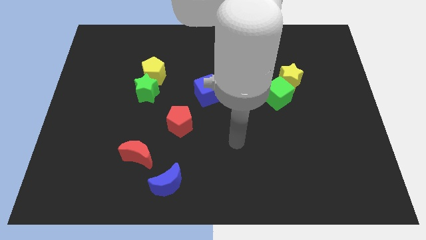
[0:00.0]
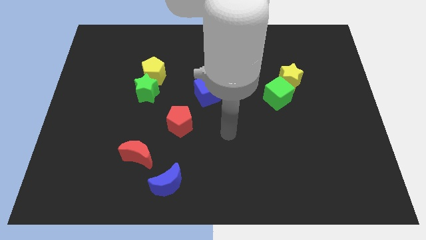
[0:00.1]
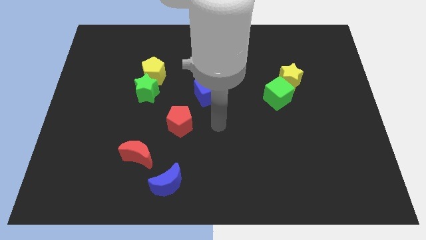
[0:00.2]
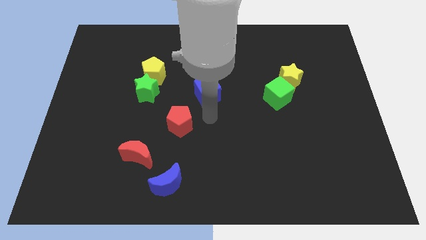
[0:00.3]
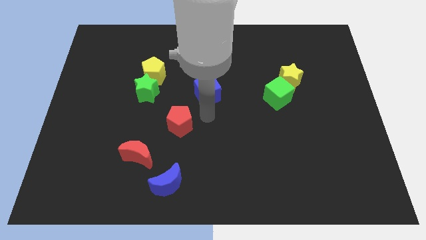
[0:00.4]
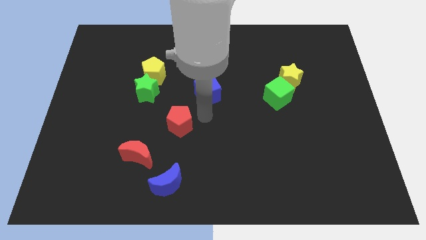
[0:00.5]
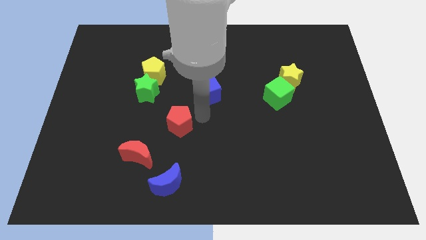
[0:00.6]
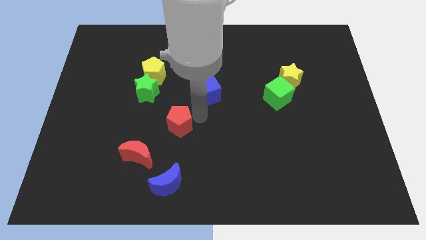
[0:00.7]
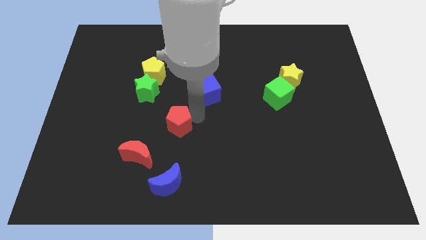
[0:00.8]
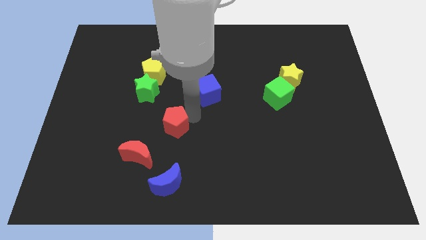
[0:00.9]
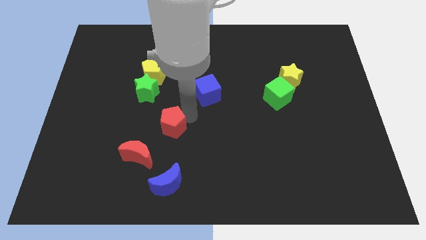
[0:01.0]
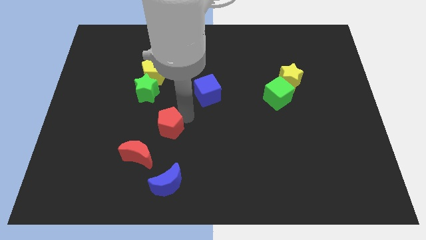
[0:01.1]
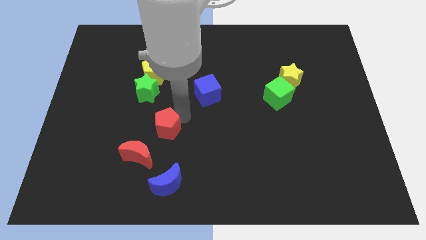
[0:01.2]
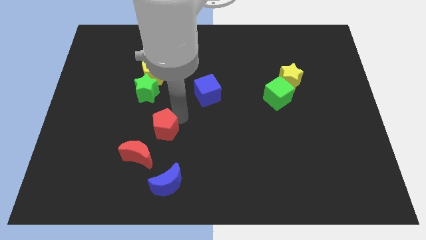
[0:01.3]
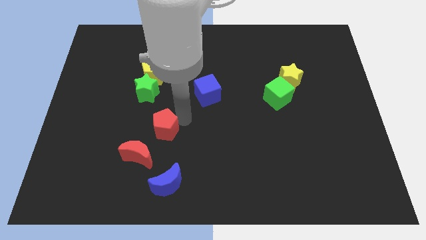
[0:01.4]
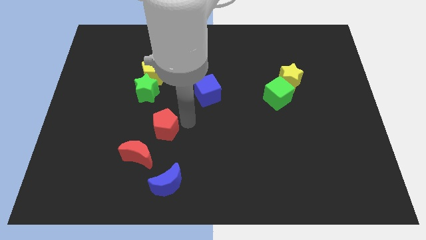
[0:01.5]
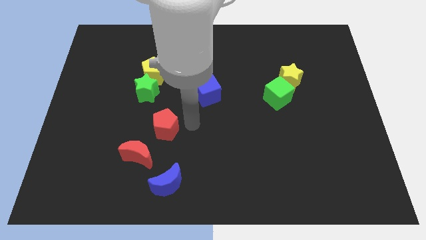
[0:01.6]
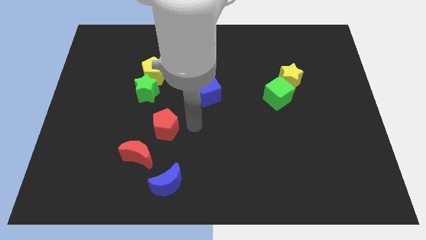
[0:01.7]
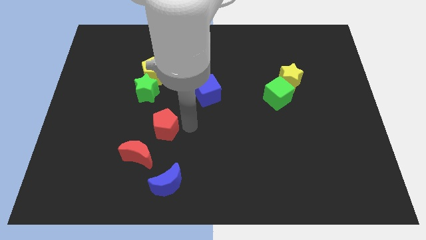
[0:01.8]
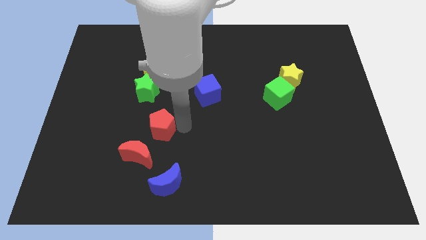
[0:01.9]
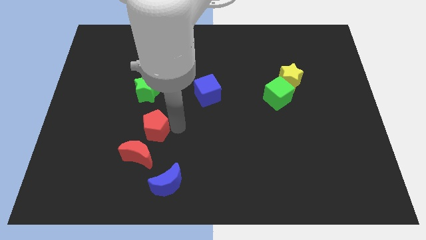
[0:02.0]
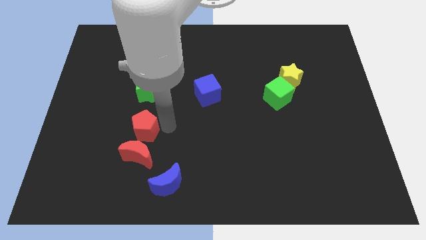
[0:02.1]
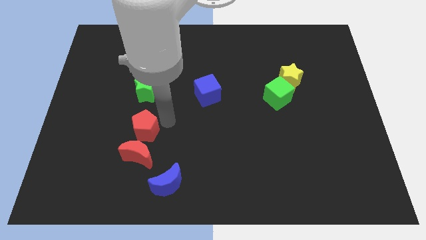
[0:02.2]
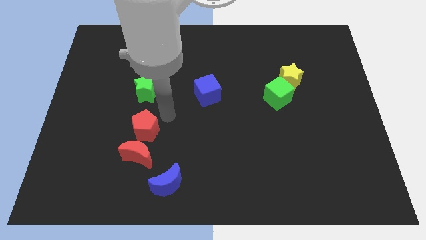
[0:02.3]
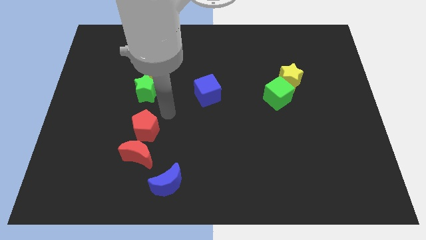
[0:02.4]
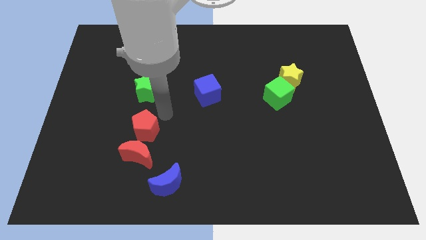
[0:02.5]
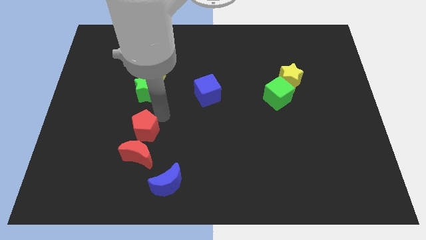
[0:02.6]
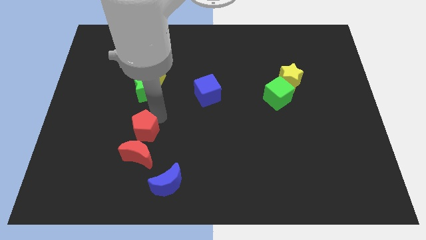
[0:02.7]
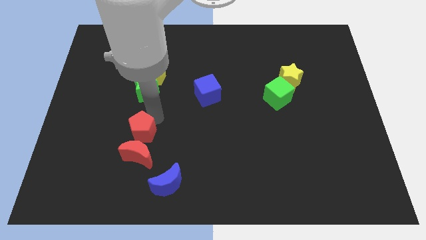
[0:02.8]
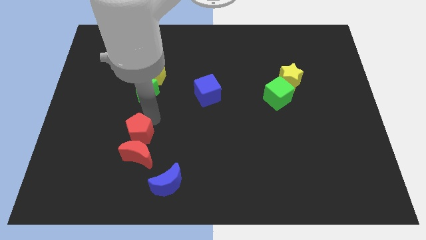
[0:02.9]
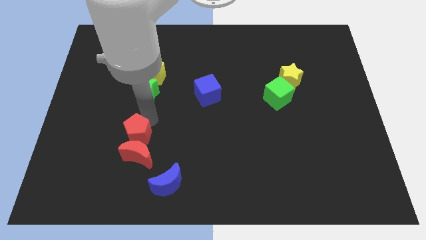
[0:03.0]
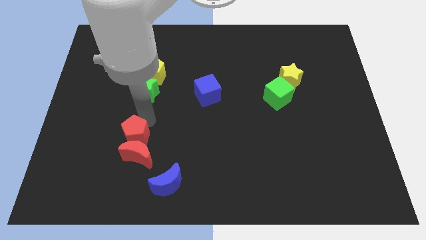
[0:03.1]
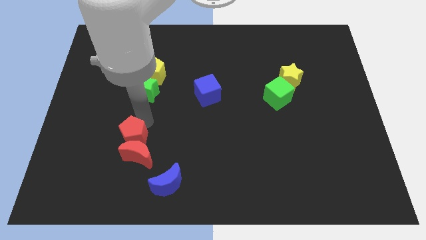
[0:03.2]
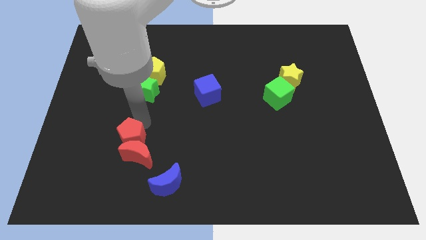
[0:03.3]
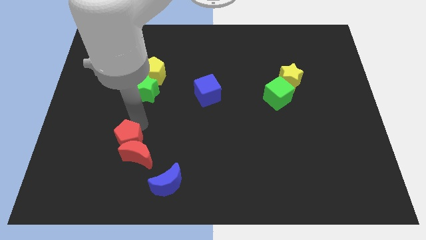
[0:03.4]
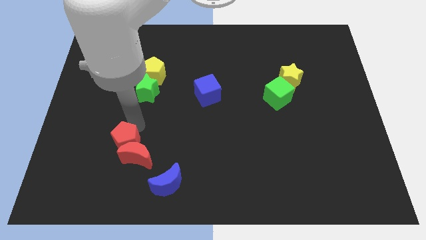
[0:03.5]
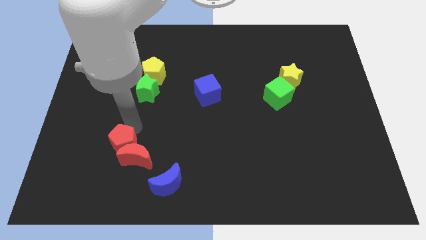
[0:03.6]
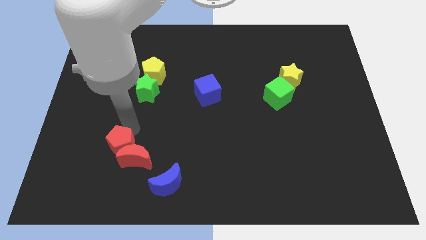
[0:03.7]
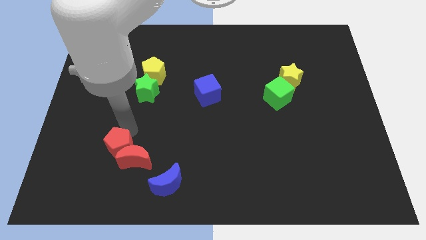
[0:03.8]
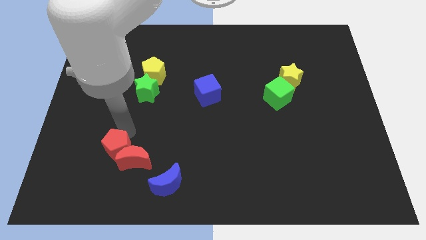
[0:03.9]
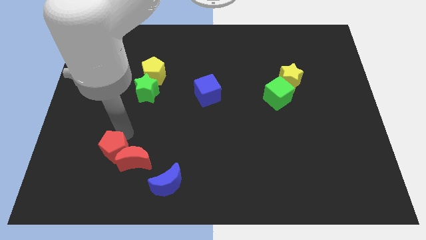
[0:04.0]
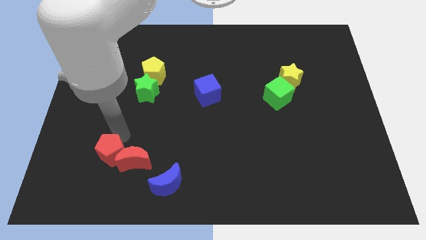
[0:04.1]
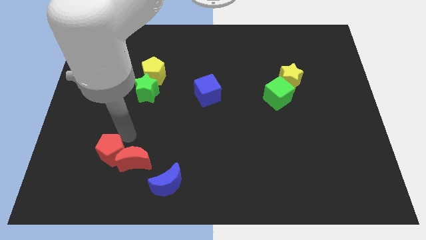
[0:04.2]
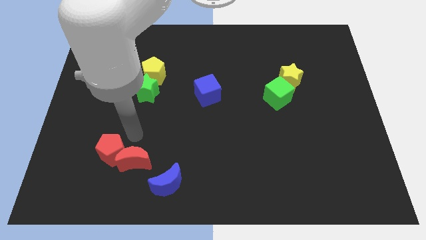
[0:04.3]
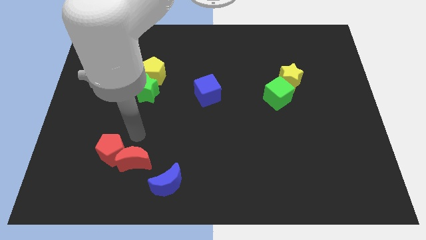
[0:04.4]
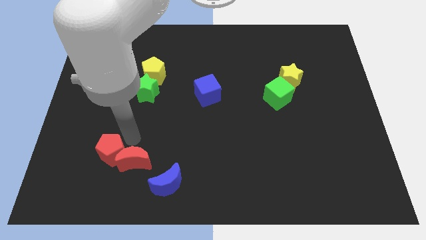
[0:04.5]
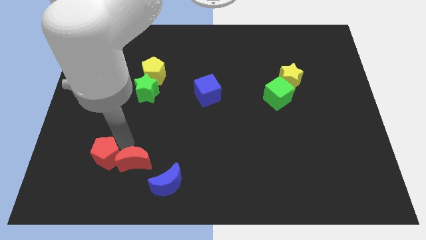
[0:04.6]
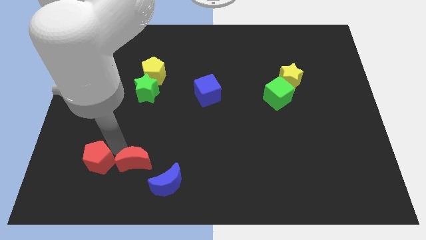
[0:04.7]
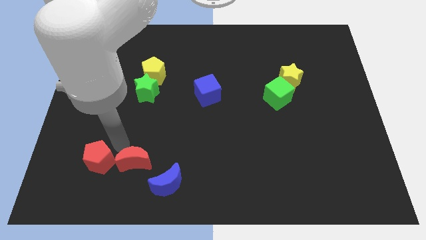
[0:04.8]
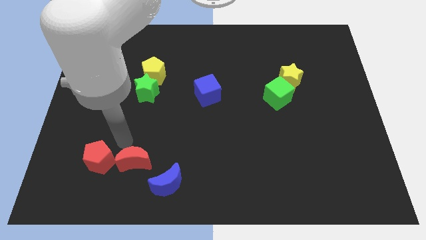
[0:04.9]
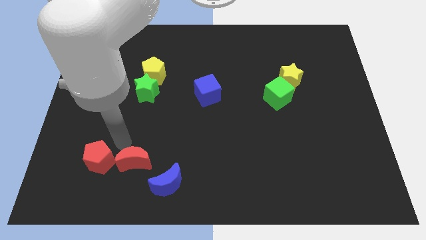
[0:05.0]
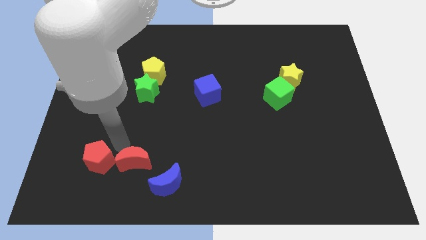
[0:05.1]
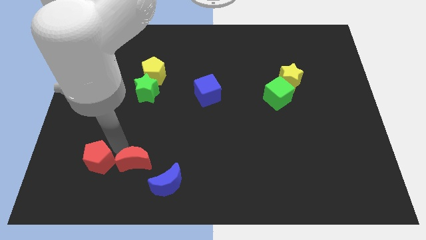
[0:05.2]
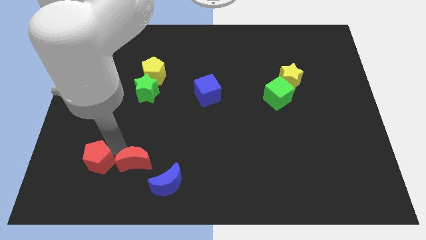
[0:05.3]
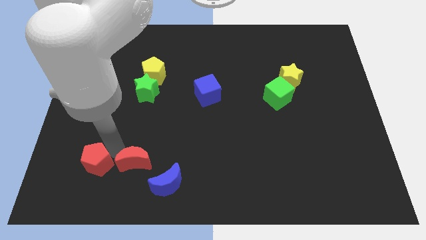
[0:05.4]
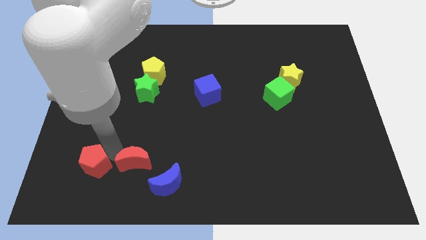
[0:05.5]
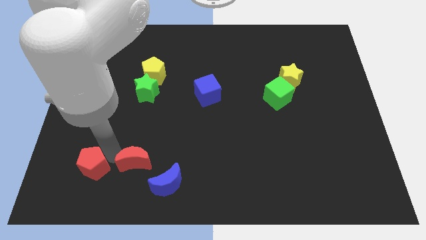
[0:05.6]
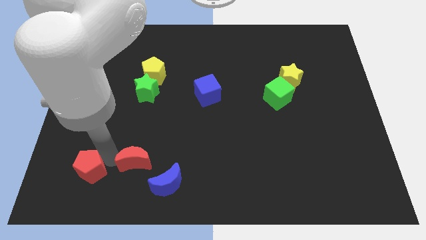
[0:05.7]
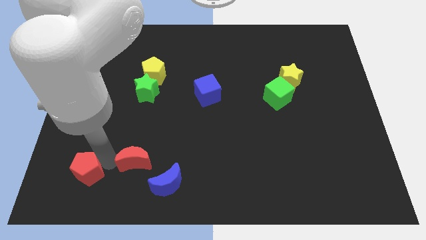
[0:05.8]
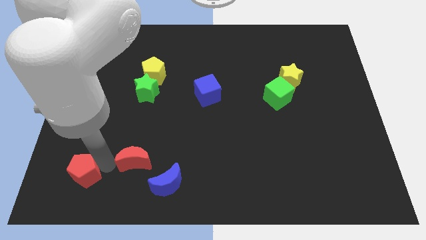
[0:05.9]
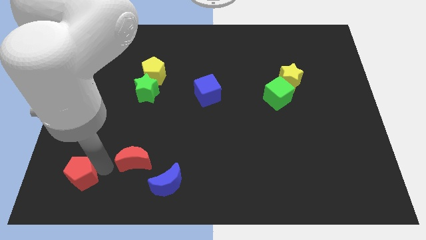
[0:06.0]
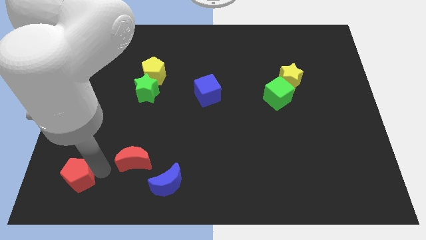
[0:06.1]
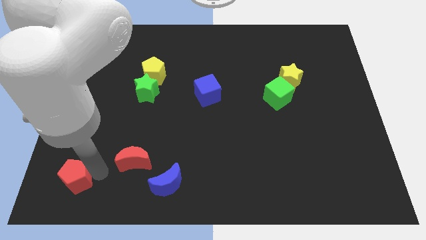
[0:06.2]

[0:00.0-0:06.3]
move the red pentagon to the lower left corner
